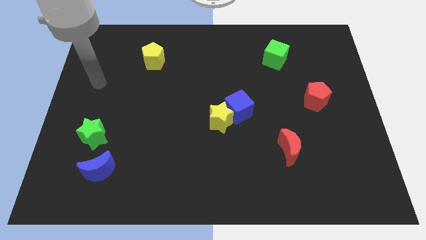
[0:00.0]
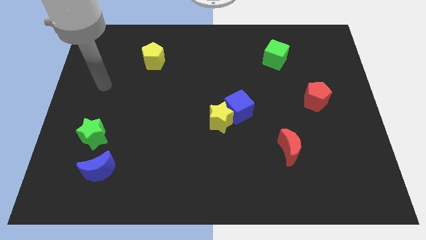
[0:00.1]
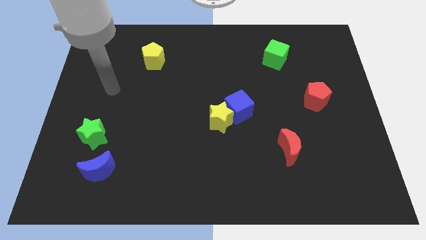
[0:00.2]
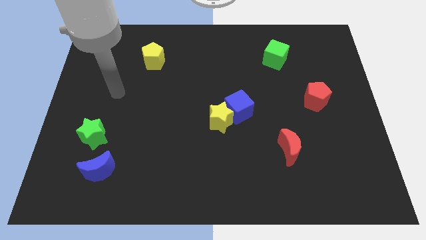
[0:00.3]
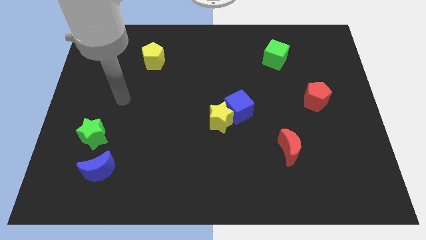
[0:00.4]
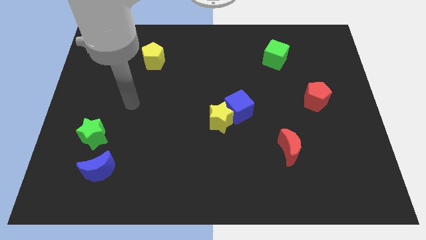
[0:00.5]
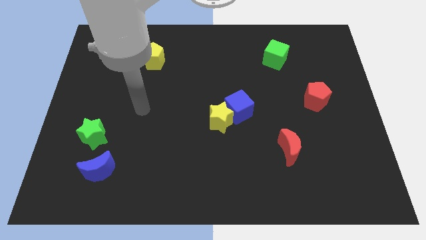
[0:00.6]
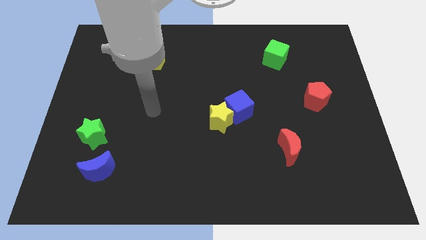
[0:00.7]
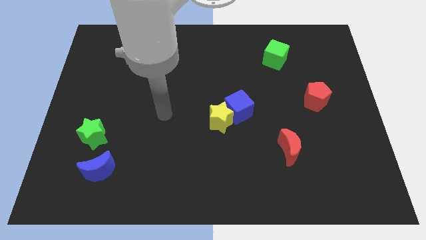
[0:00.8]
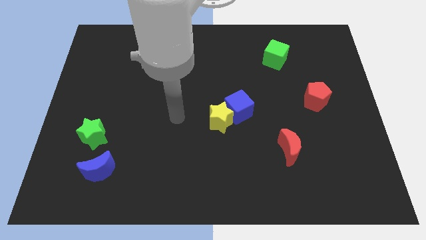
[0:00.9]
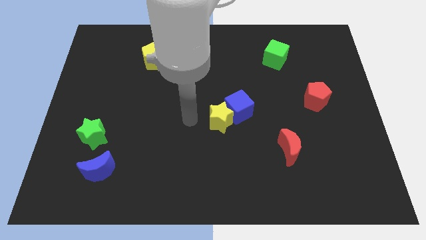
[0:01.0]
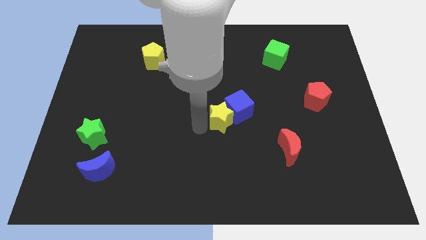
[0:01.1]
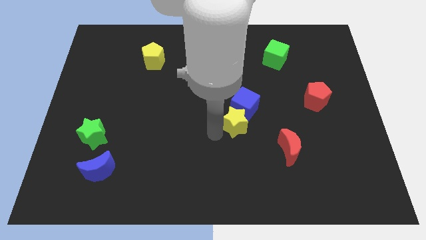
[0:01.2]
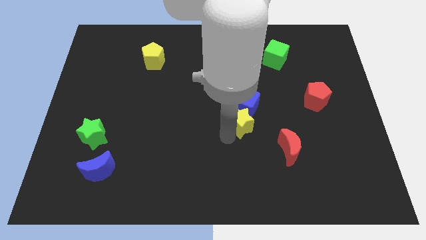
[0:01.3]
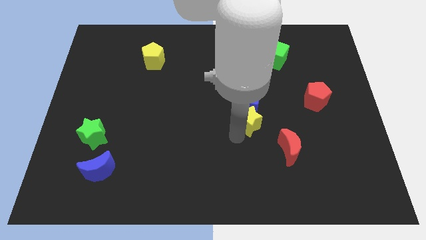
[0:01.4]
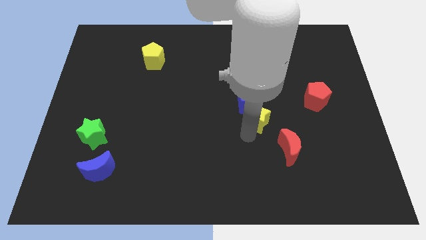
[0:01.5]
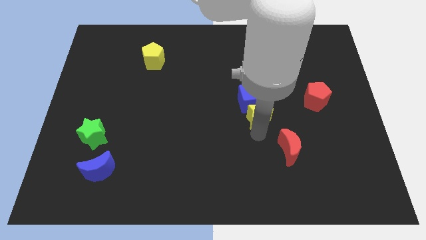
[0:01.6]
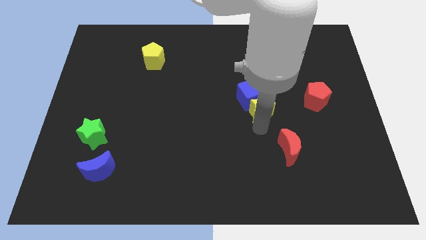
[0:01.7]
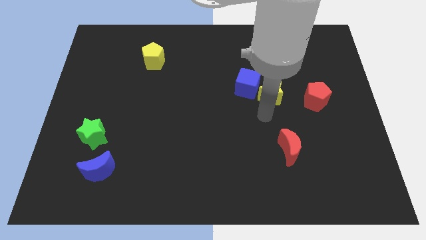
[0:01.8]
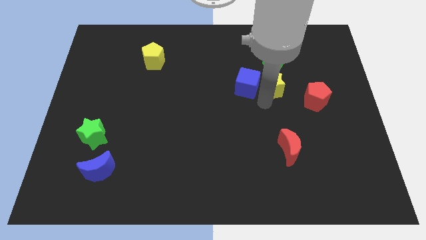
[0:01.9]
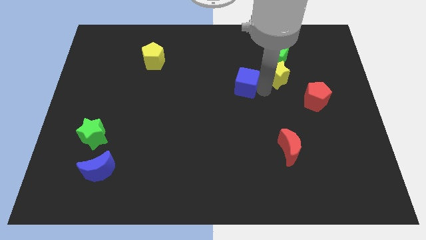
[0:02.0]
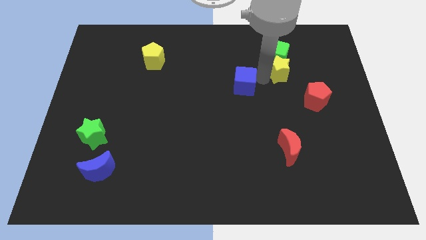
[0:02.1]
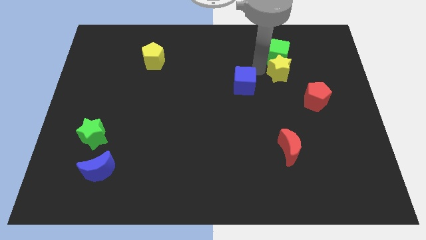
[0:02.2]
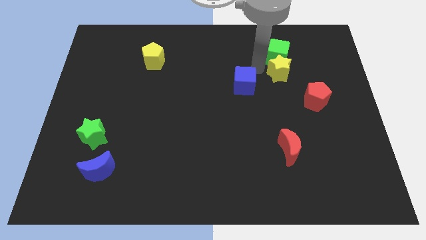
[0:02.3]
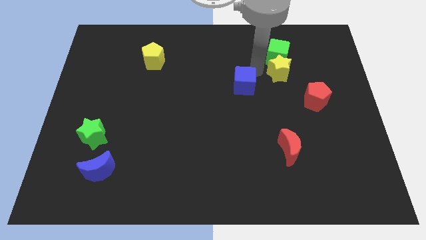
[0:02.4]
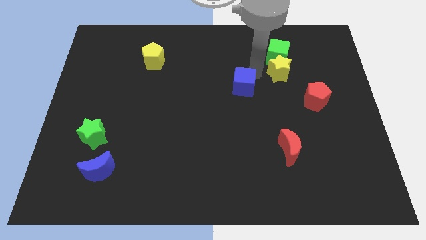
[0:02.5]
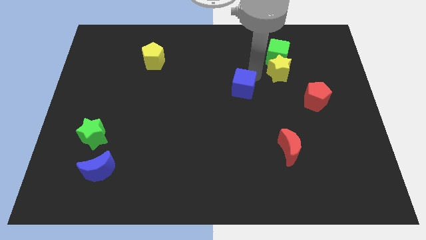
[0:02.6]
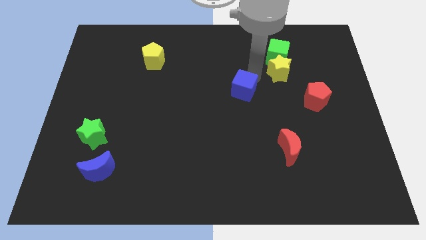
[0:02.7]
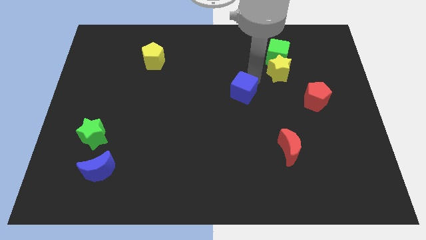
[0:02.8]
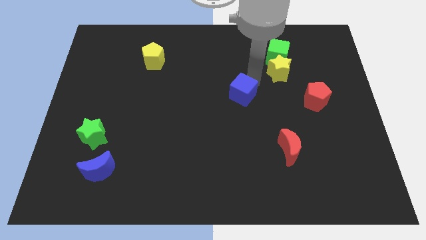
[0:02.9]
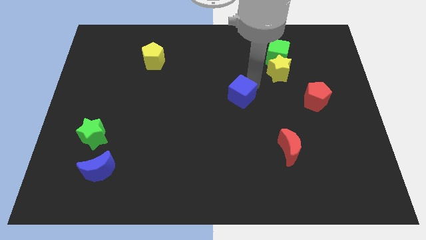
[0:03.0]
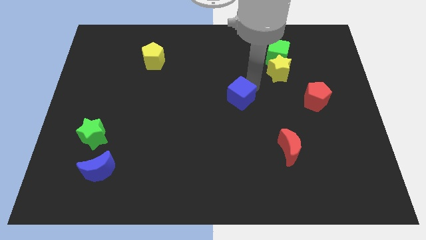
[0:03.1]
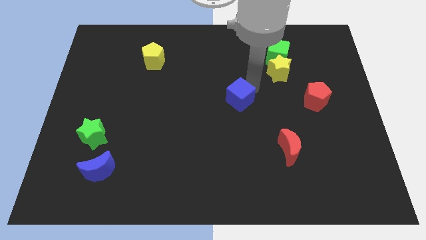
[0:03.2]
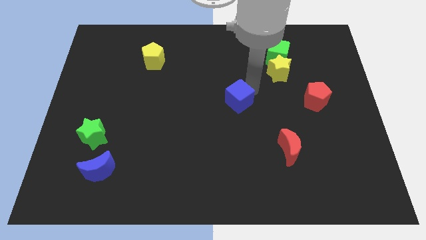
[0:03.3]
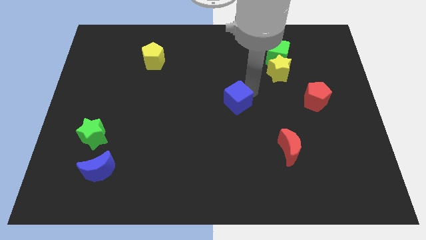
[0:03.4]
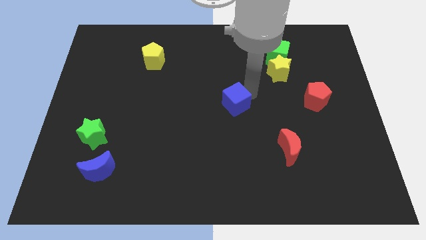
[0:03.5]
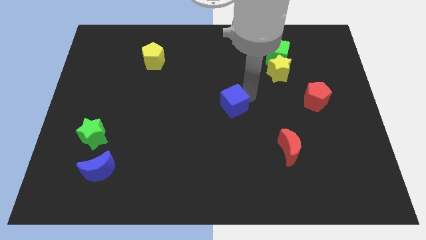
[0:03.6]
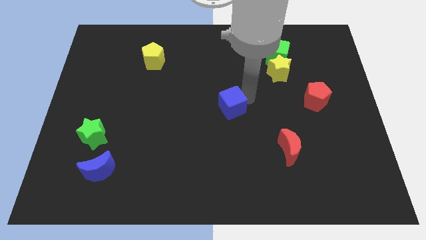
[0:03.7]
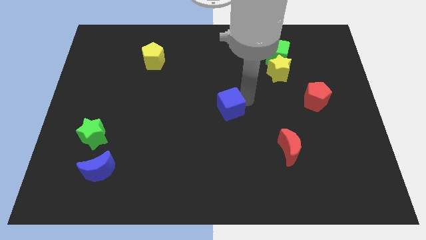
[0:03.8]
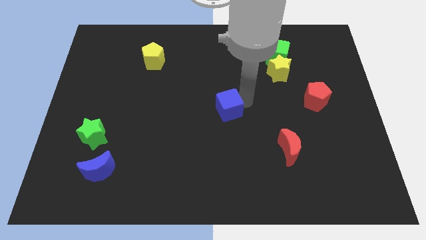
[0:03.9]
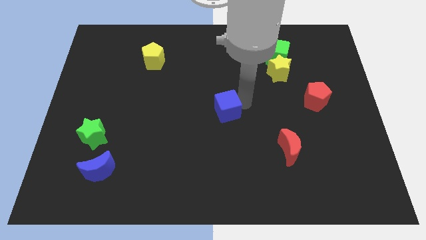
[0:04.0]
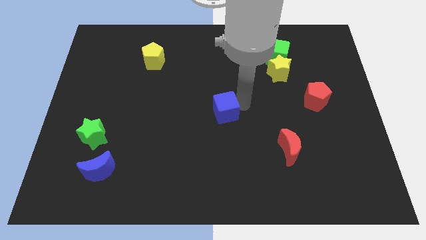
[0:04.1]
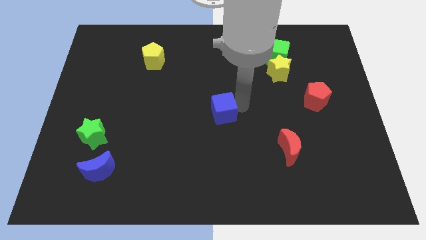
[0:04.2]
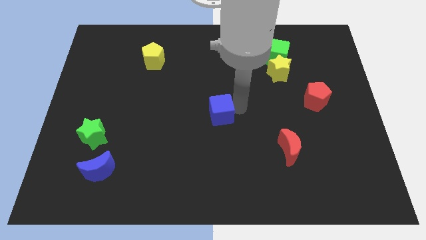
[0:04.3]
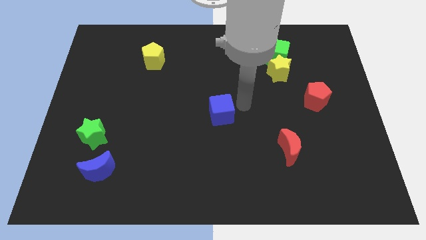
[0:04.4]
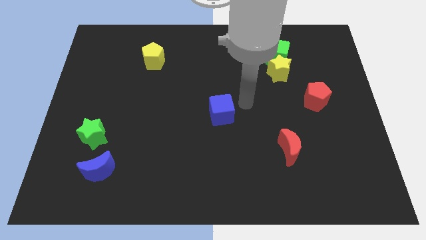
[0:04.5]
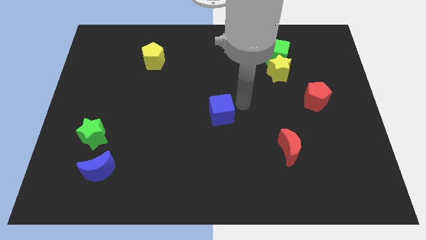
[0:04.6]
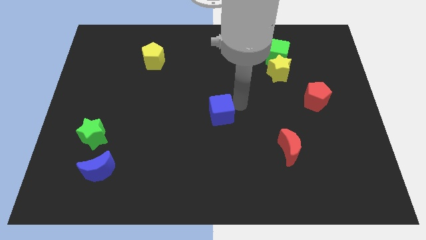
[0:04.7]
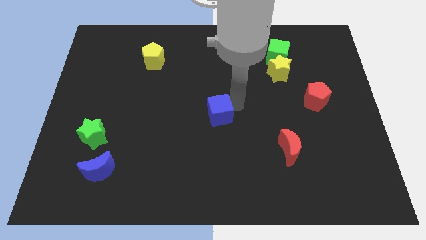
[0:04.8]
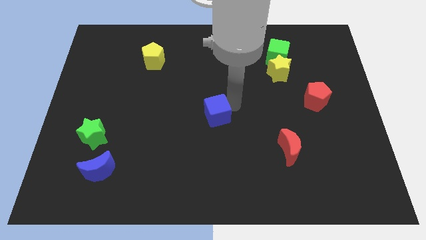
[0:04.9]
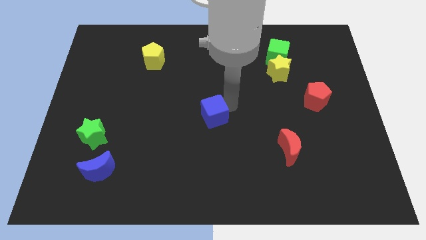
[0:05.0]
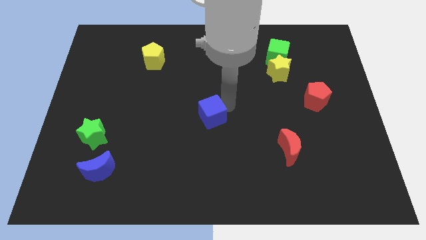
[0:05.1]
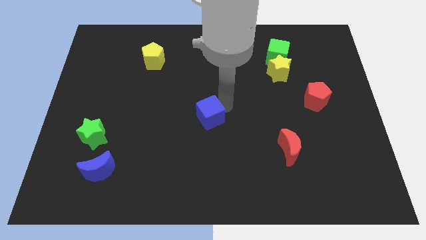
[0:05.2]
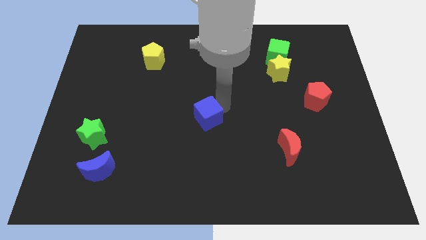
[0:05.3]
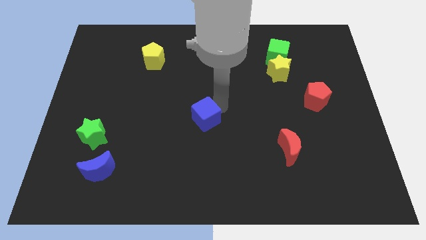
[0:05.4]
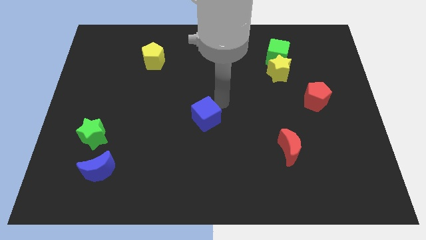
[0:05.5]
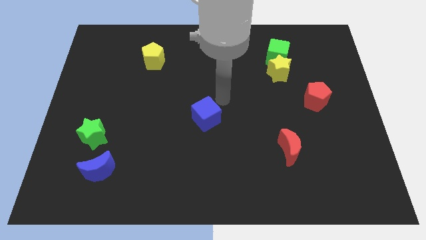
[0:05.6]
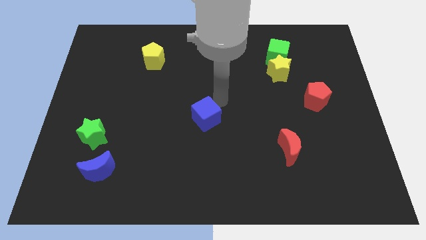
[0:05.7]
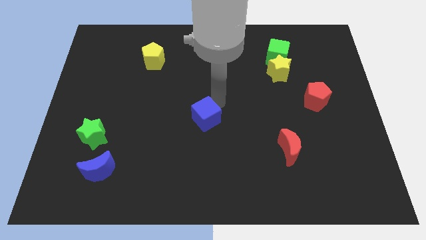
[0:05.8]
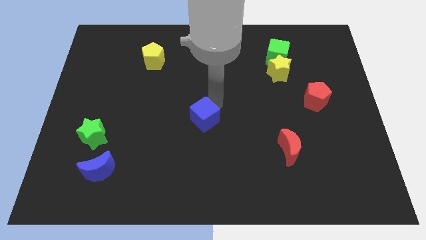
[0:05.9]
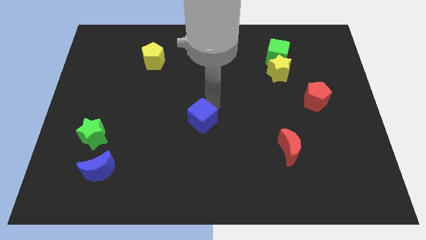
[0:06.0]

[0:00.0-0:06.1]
move the blue cube slightly diagonally down and left

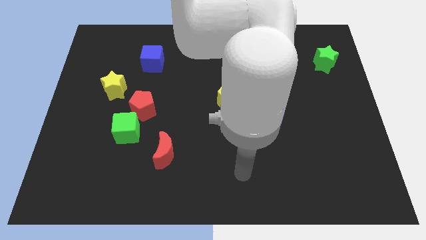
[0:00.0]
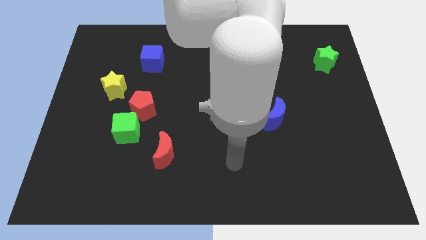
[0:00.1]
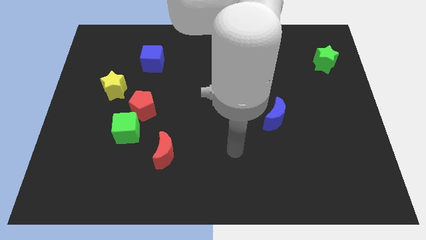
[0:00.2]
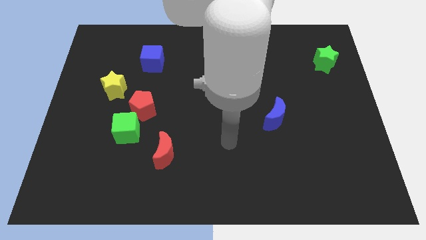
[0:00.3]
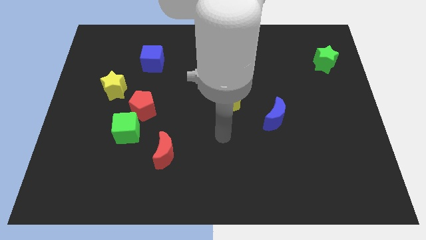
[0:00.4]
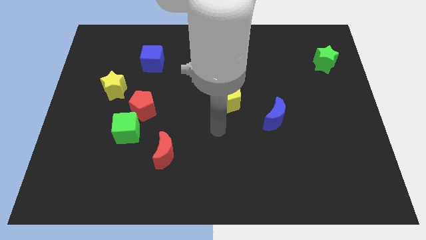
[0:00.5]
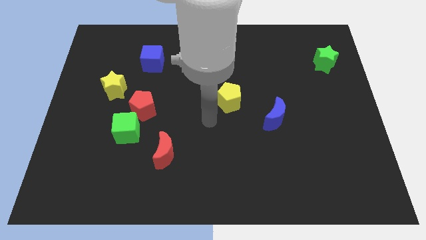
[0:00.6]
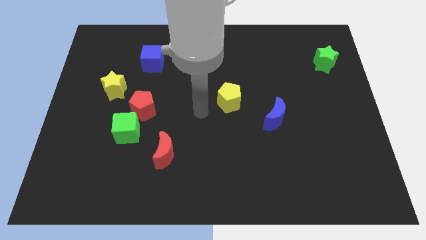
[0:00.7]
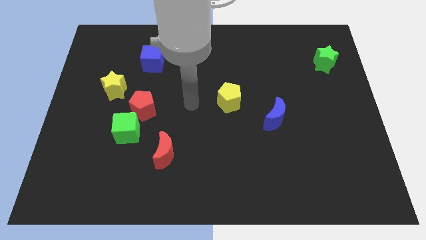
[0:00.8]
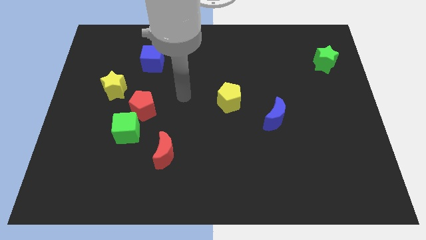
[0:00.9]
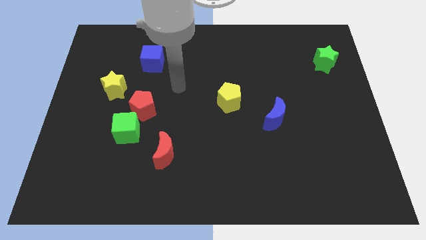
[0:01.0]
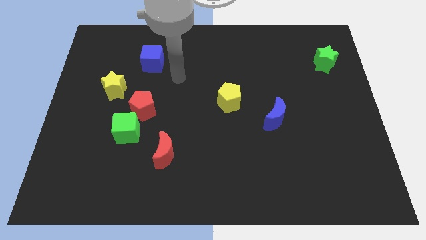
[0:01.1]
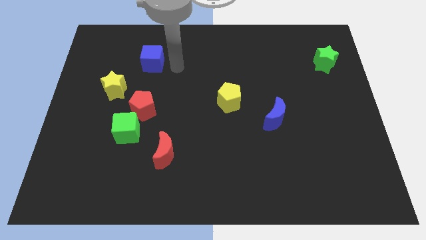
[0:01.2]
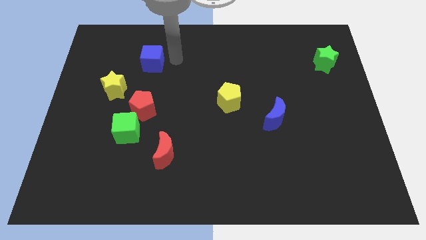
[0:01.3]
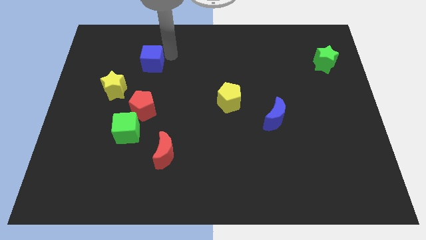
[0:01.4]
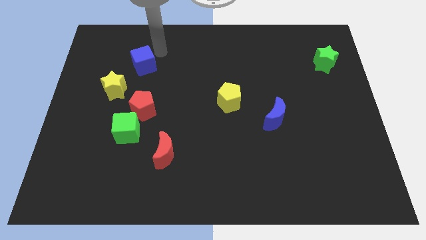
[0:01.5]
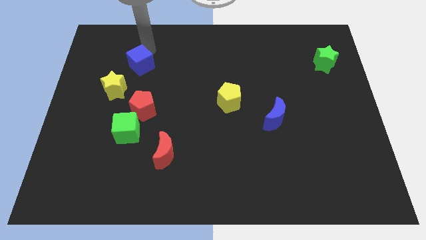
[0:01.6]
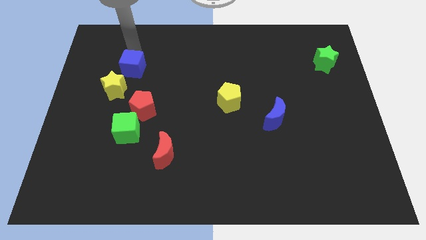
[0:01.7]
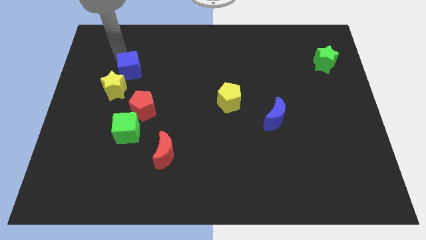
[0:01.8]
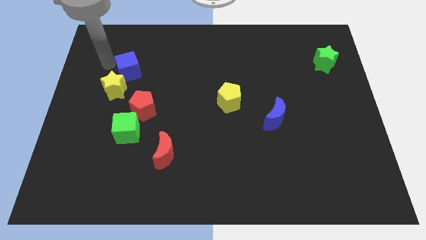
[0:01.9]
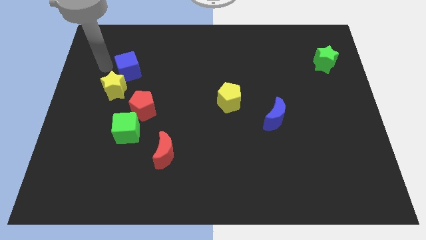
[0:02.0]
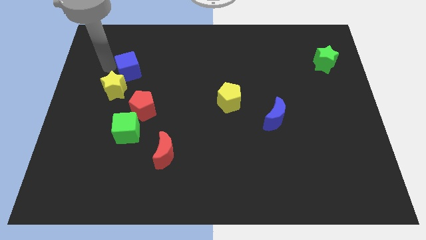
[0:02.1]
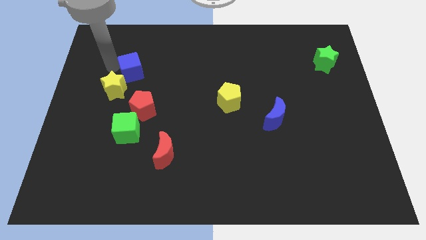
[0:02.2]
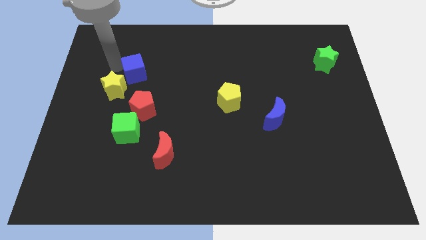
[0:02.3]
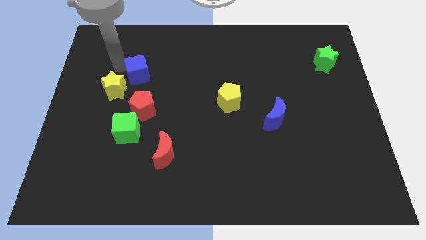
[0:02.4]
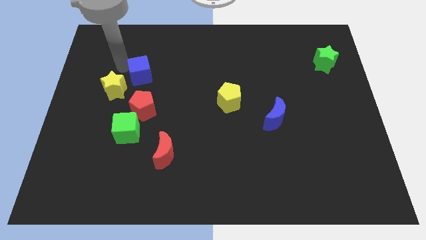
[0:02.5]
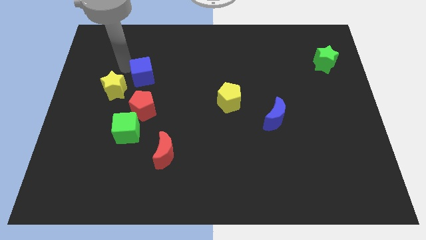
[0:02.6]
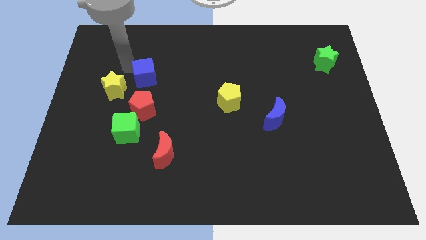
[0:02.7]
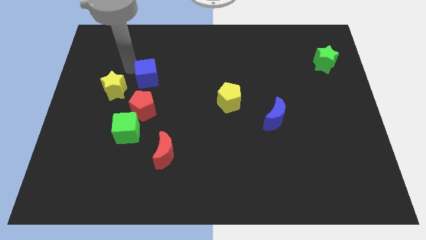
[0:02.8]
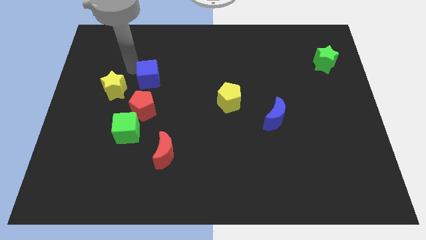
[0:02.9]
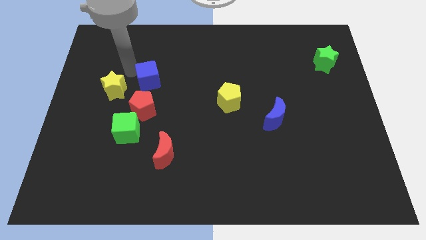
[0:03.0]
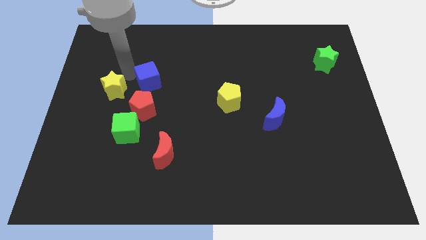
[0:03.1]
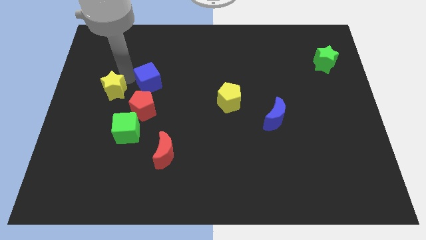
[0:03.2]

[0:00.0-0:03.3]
slide the blue cube slightly downwards
